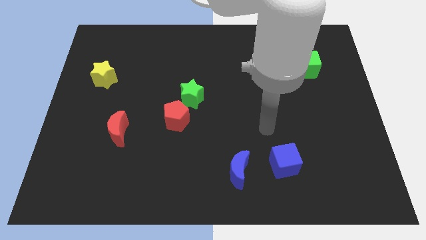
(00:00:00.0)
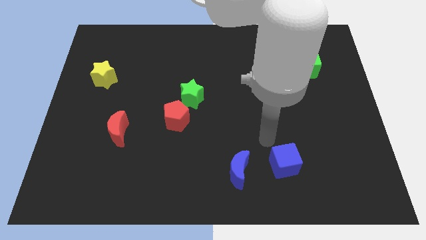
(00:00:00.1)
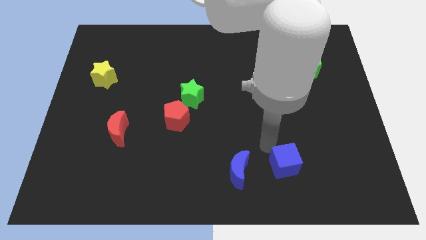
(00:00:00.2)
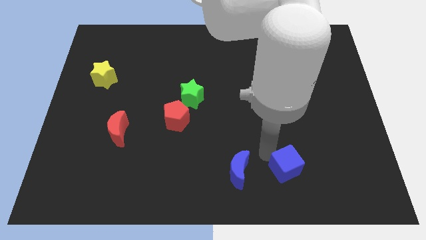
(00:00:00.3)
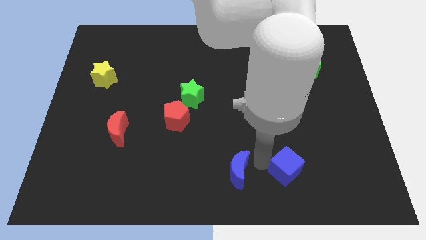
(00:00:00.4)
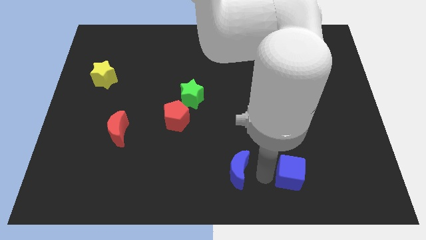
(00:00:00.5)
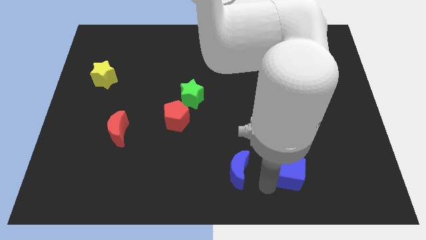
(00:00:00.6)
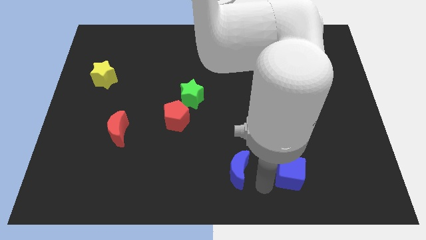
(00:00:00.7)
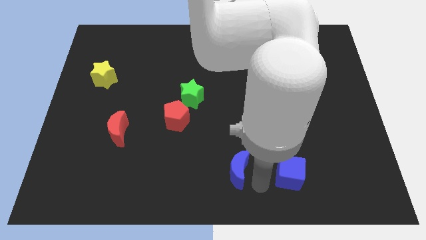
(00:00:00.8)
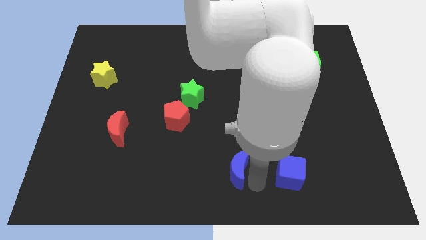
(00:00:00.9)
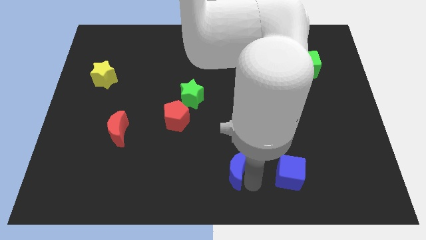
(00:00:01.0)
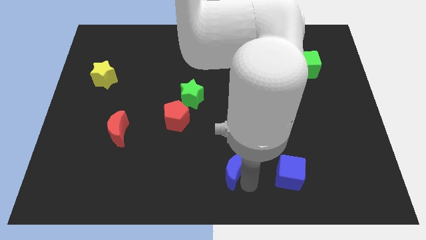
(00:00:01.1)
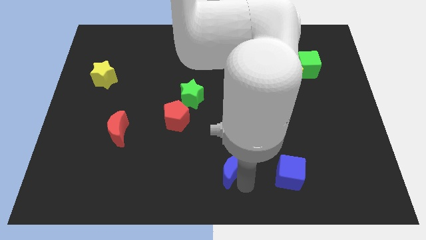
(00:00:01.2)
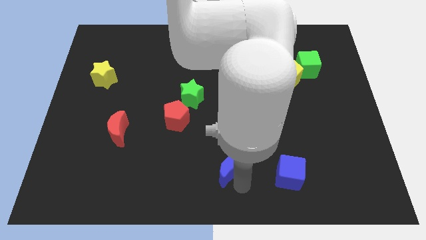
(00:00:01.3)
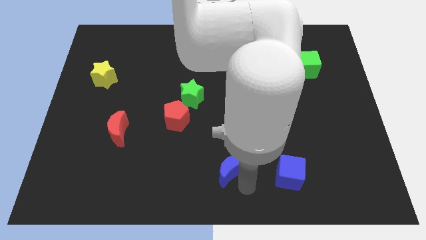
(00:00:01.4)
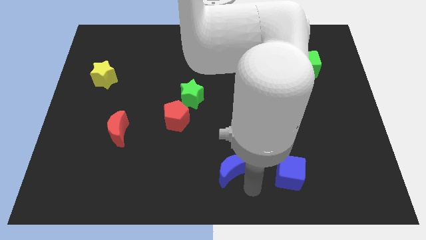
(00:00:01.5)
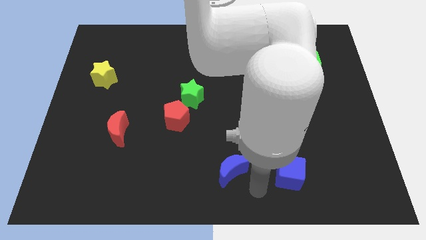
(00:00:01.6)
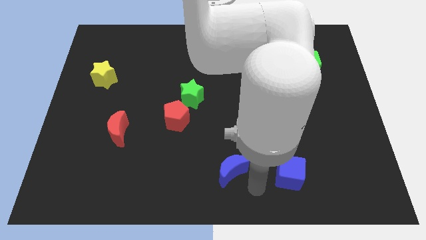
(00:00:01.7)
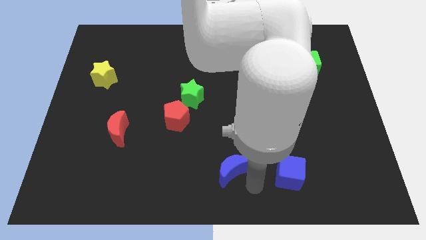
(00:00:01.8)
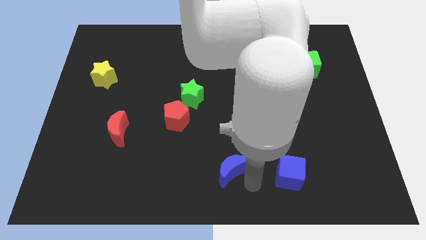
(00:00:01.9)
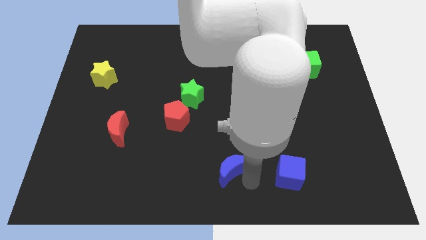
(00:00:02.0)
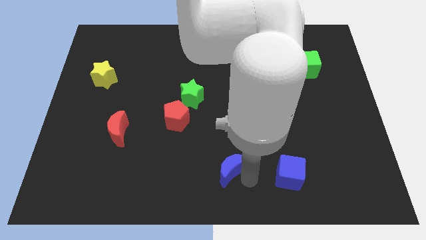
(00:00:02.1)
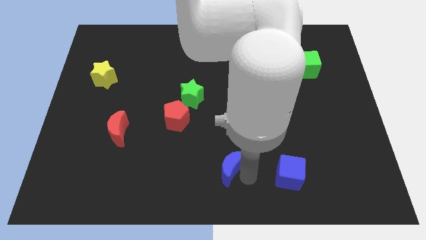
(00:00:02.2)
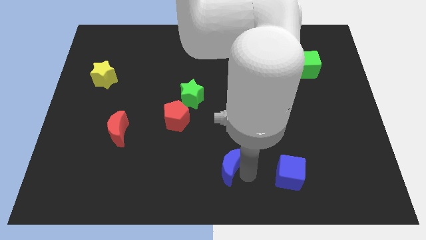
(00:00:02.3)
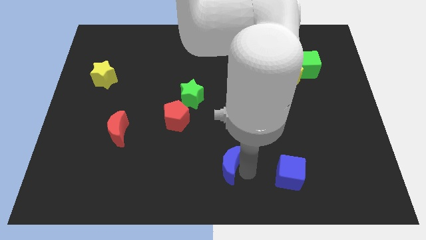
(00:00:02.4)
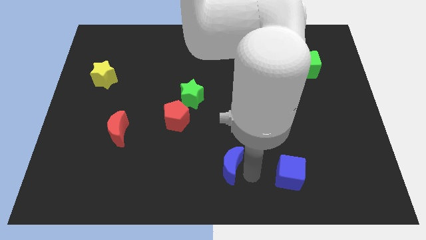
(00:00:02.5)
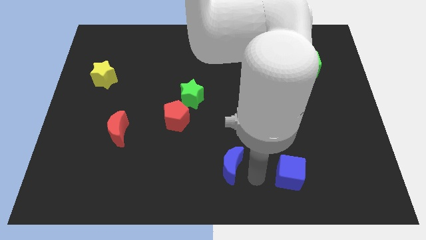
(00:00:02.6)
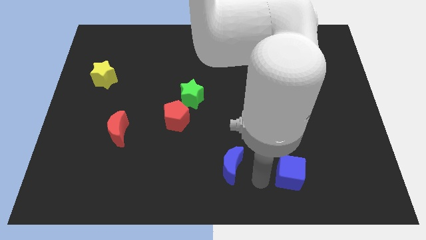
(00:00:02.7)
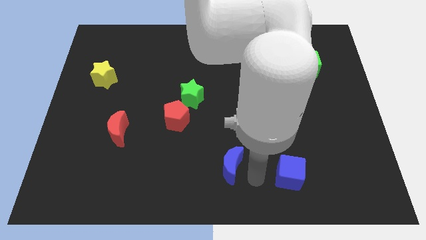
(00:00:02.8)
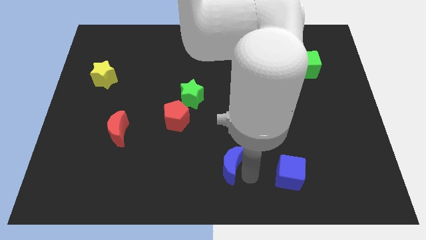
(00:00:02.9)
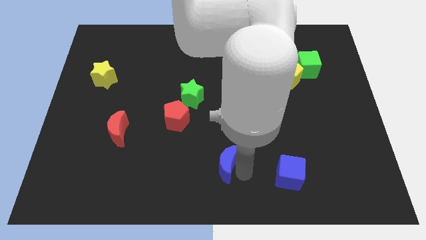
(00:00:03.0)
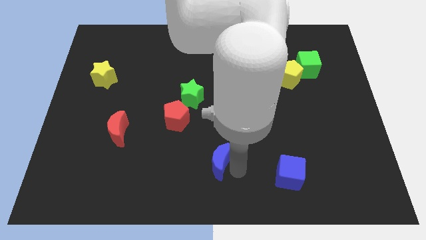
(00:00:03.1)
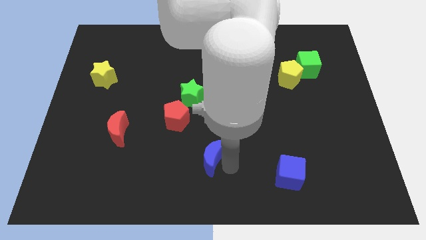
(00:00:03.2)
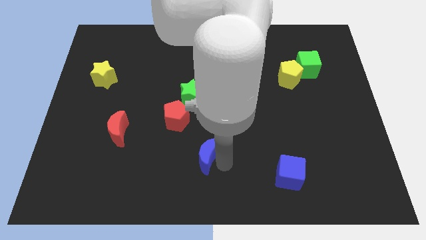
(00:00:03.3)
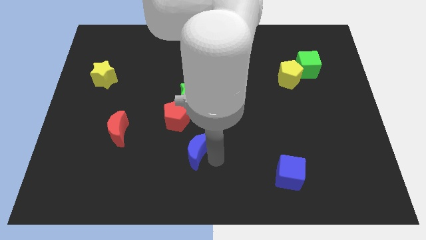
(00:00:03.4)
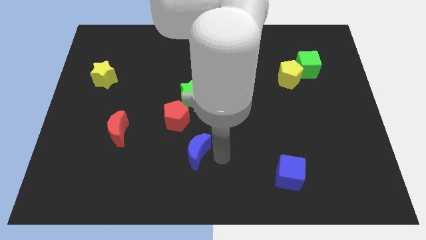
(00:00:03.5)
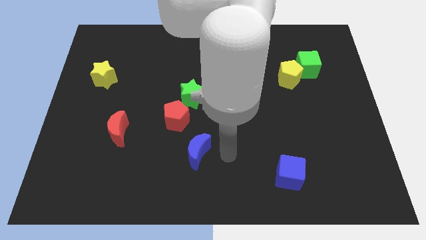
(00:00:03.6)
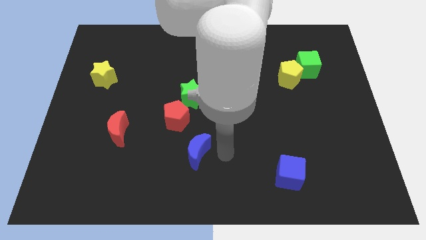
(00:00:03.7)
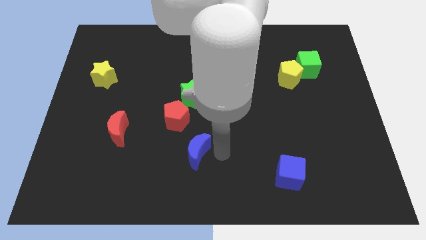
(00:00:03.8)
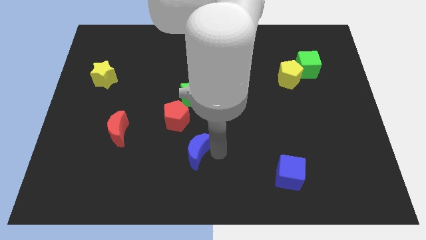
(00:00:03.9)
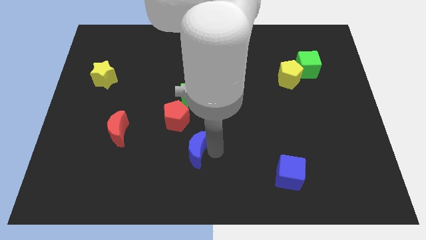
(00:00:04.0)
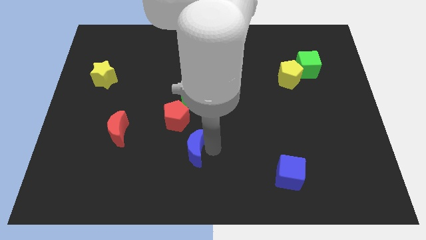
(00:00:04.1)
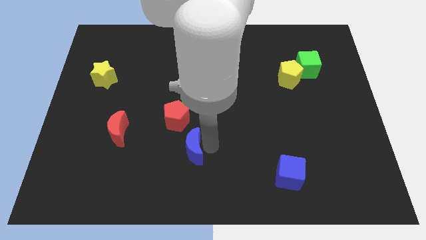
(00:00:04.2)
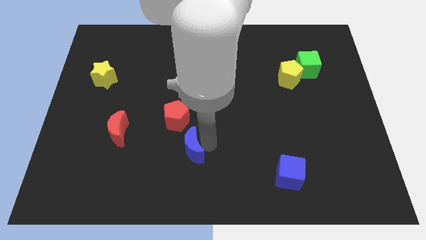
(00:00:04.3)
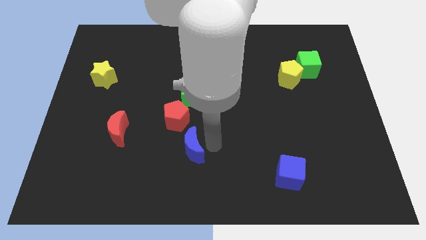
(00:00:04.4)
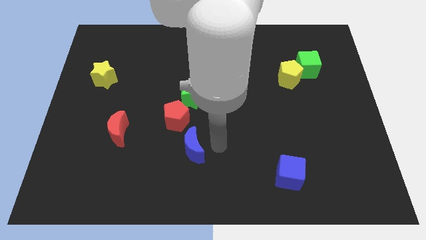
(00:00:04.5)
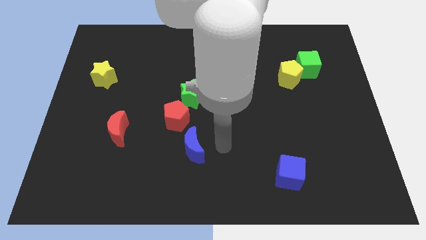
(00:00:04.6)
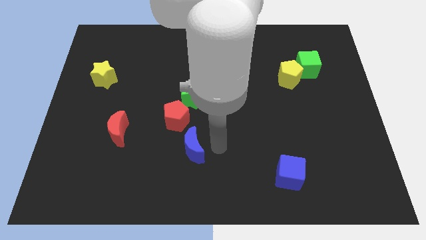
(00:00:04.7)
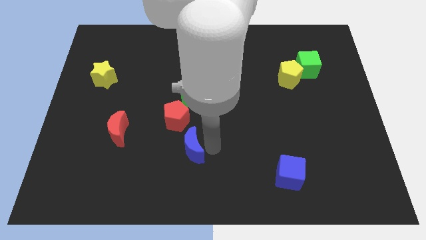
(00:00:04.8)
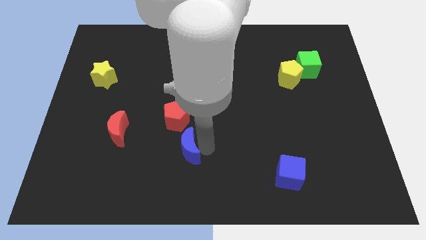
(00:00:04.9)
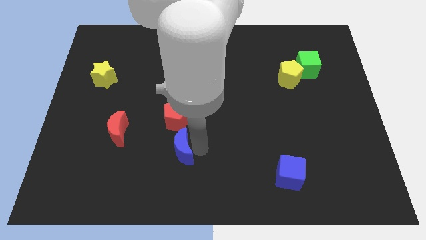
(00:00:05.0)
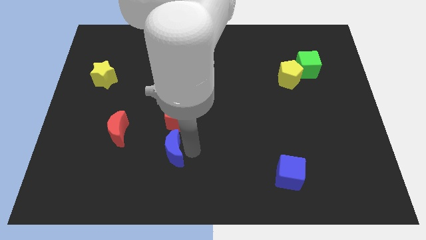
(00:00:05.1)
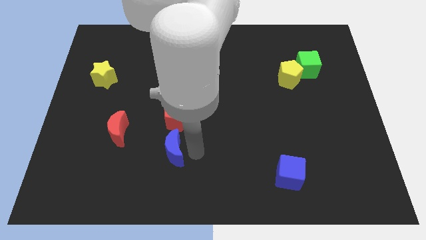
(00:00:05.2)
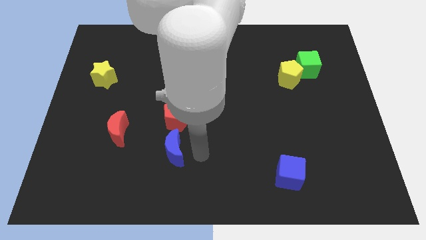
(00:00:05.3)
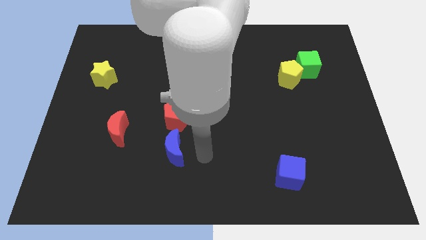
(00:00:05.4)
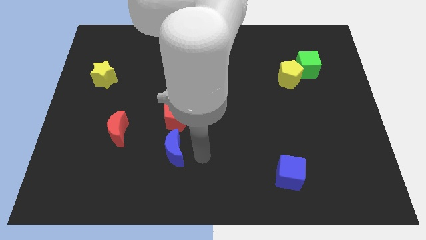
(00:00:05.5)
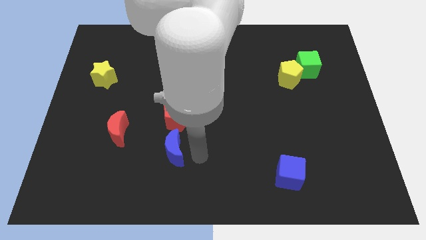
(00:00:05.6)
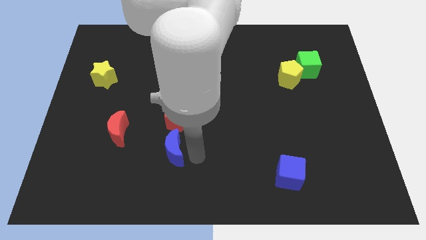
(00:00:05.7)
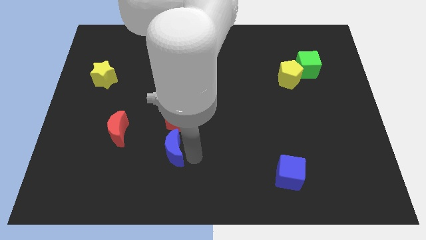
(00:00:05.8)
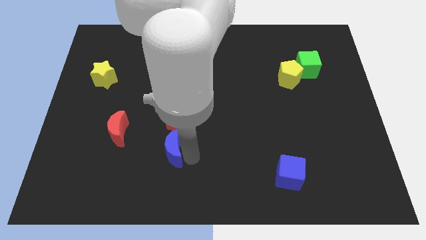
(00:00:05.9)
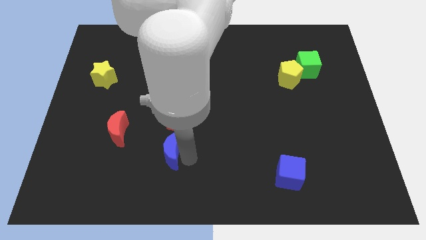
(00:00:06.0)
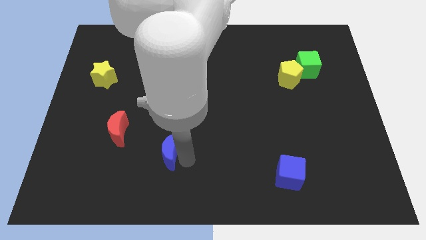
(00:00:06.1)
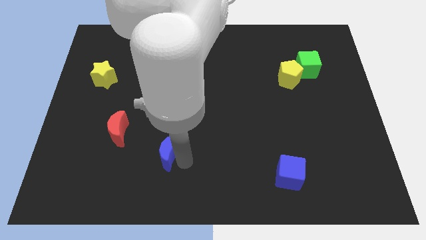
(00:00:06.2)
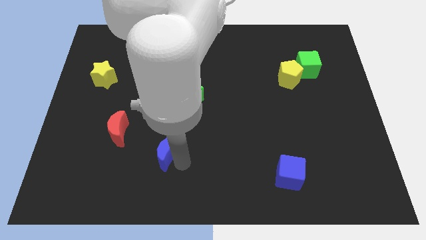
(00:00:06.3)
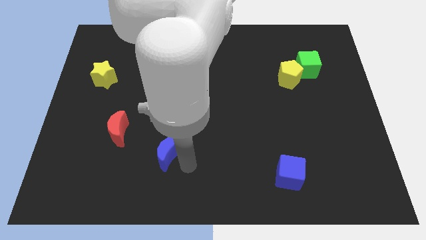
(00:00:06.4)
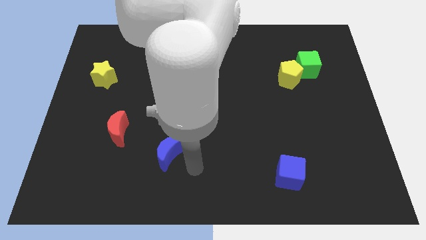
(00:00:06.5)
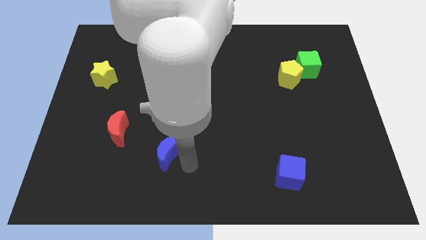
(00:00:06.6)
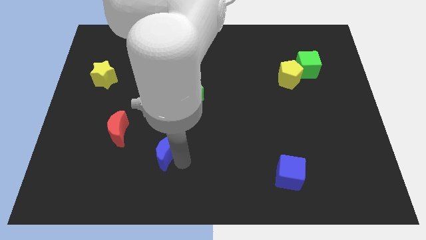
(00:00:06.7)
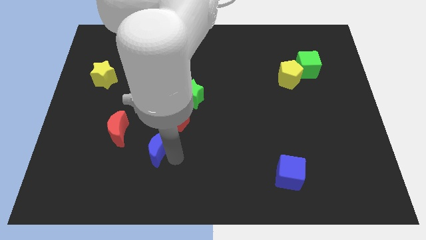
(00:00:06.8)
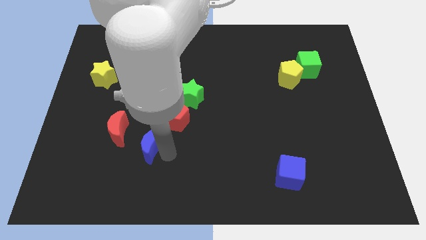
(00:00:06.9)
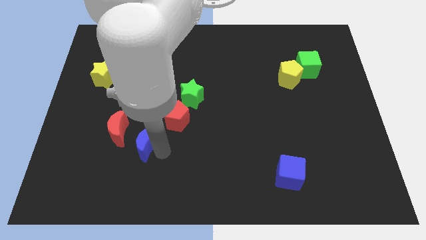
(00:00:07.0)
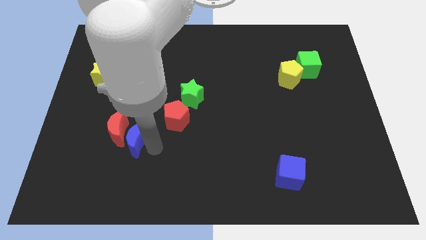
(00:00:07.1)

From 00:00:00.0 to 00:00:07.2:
push the blue moon close to the red moon
